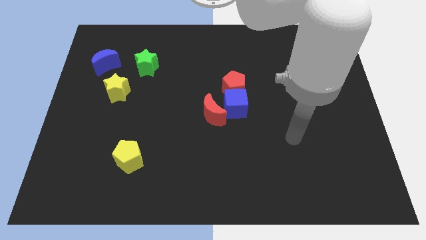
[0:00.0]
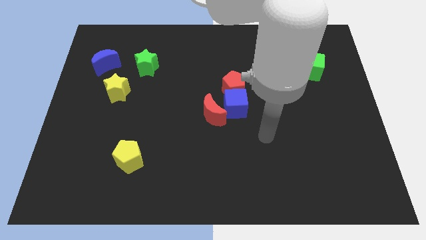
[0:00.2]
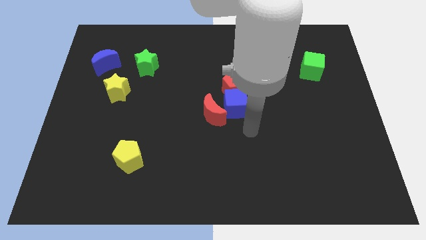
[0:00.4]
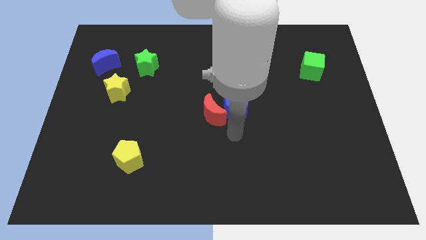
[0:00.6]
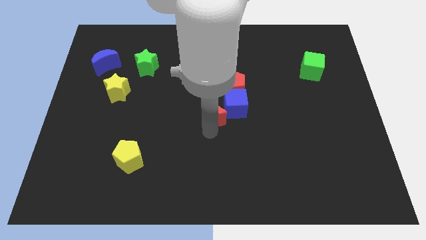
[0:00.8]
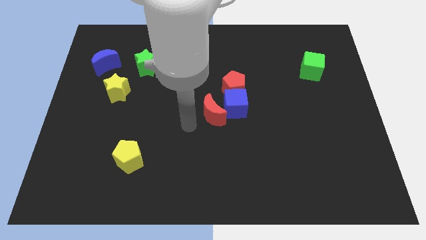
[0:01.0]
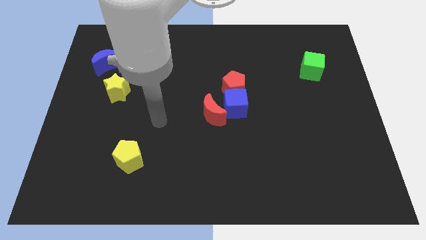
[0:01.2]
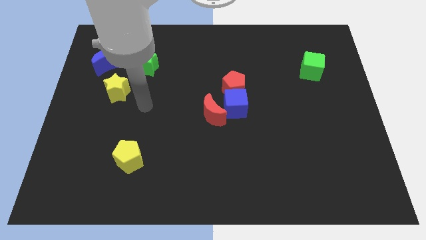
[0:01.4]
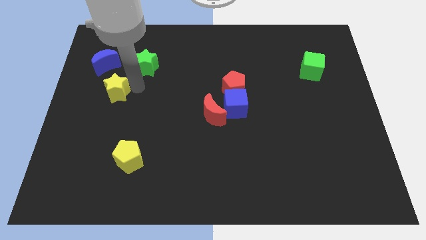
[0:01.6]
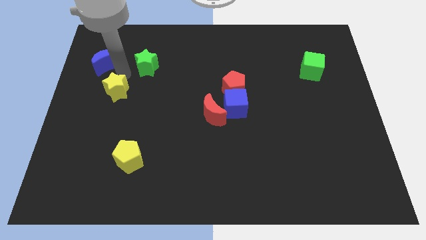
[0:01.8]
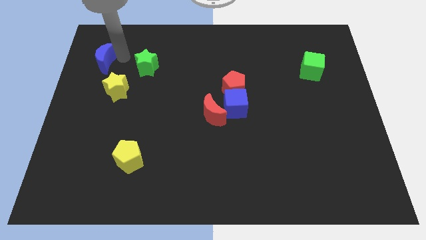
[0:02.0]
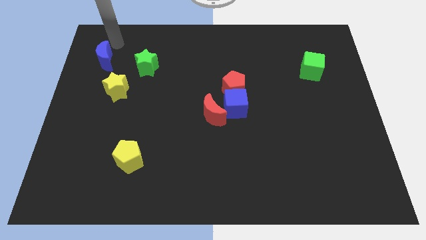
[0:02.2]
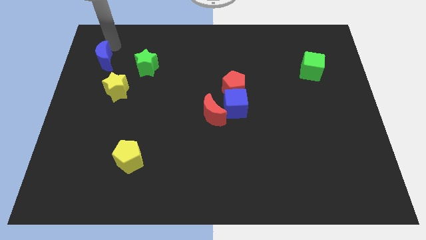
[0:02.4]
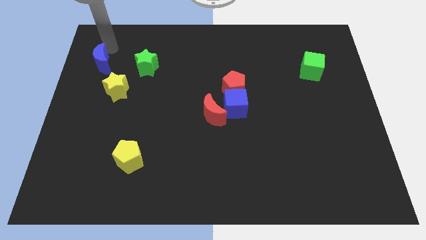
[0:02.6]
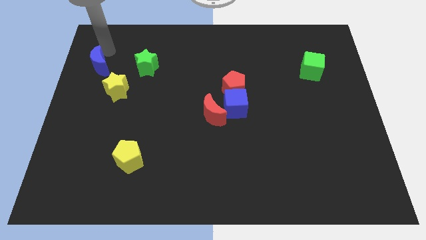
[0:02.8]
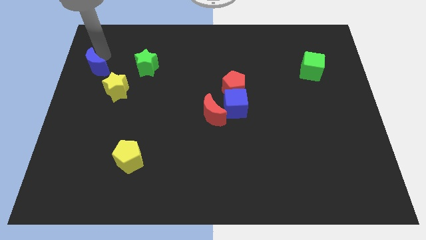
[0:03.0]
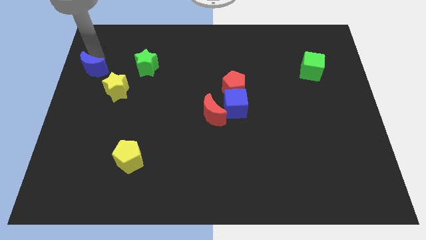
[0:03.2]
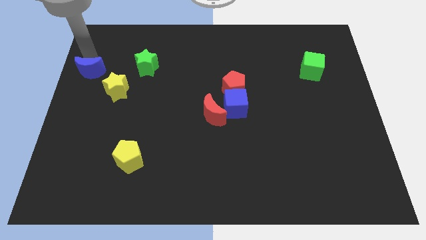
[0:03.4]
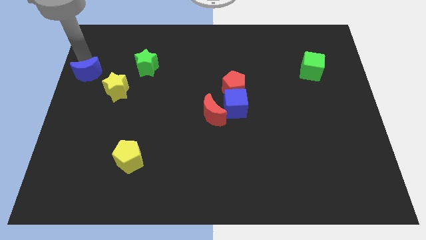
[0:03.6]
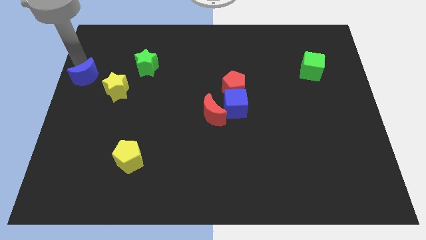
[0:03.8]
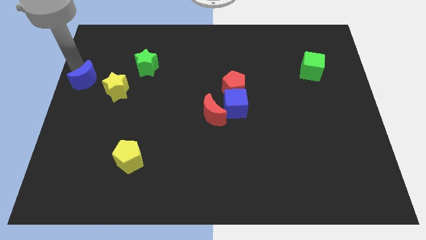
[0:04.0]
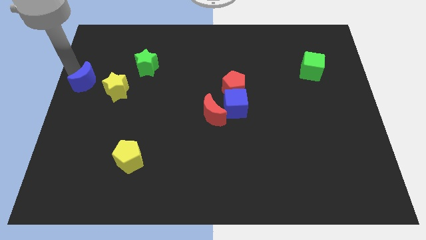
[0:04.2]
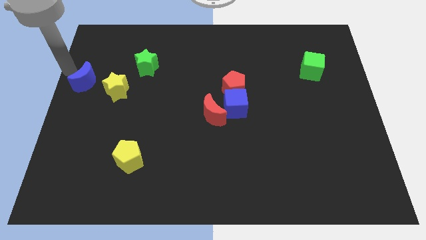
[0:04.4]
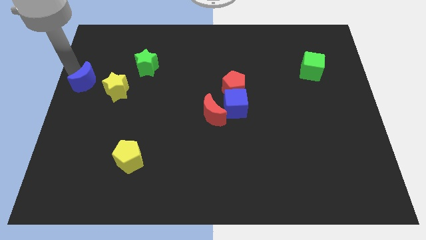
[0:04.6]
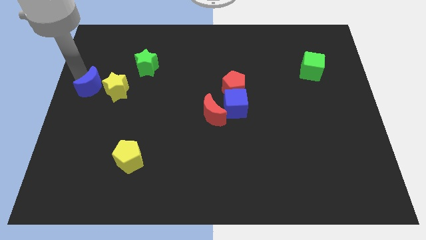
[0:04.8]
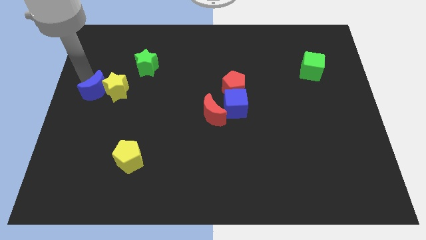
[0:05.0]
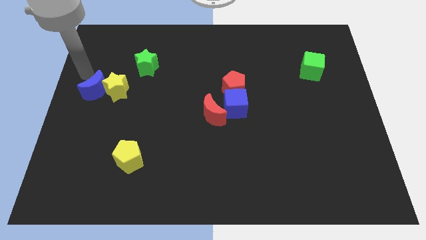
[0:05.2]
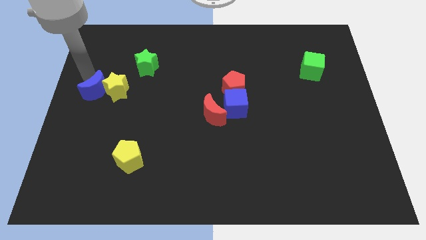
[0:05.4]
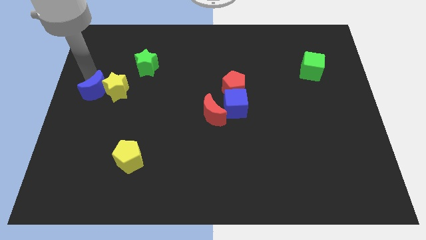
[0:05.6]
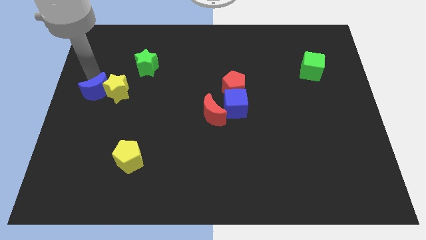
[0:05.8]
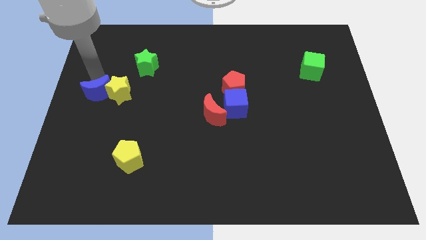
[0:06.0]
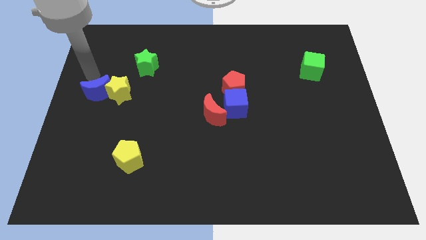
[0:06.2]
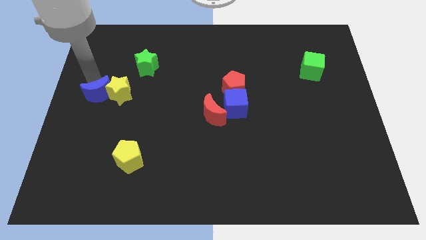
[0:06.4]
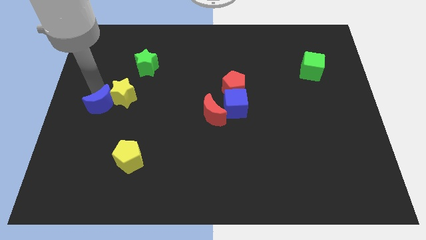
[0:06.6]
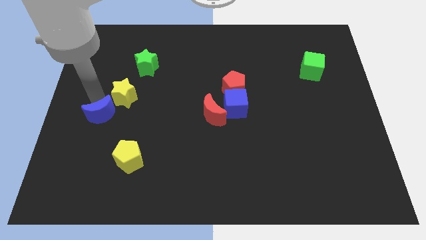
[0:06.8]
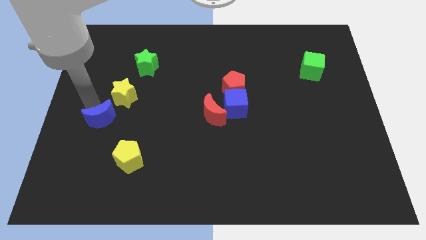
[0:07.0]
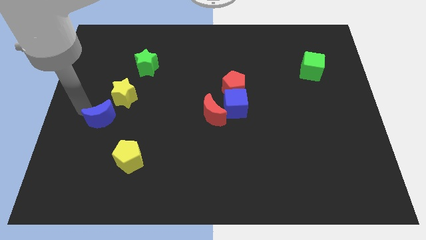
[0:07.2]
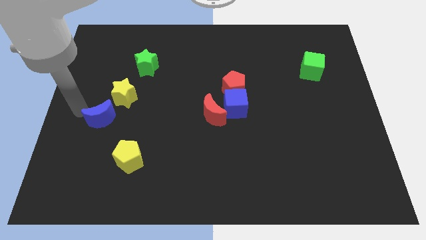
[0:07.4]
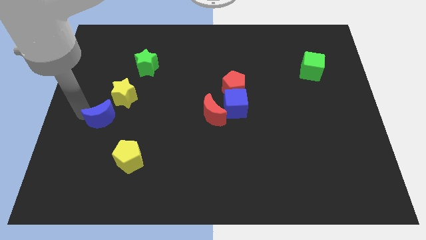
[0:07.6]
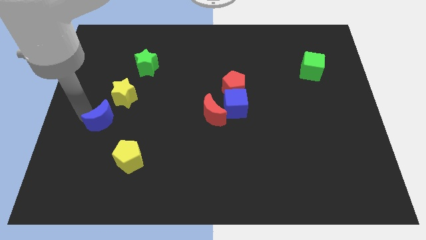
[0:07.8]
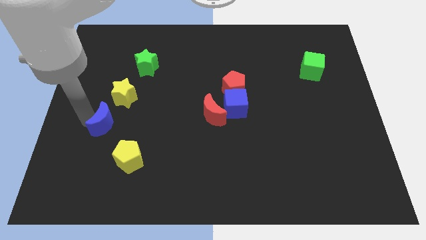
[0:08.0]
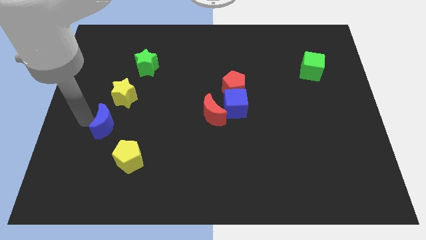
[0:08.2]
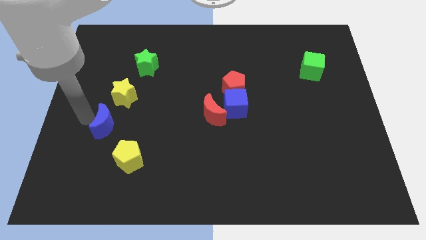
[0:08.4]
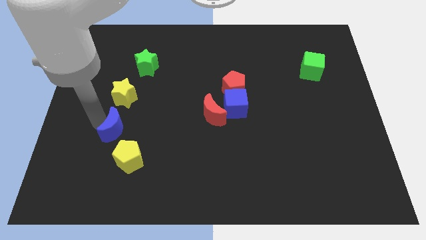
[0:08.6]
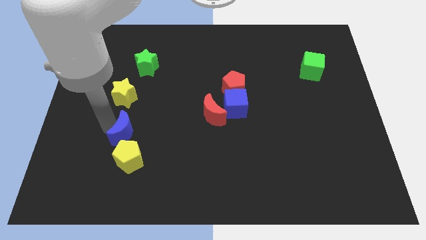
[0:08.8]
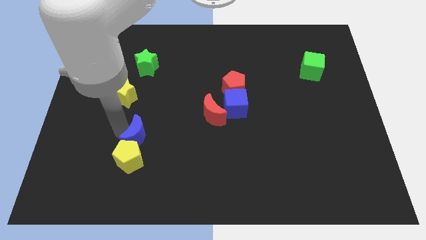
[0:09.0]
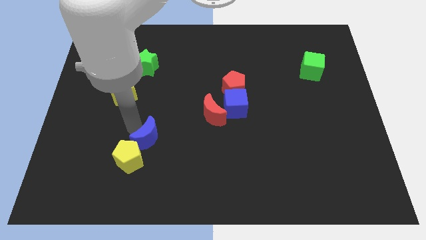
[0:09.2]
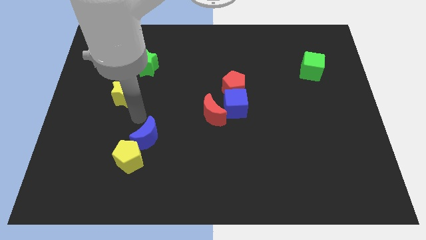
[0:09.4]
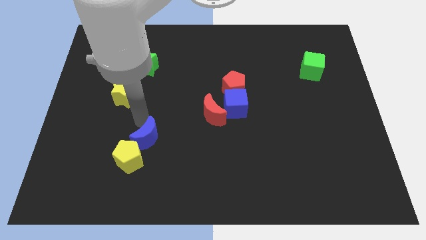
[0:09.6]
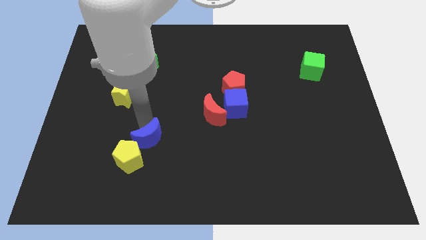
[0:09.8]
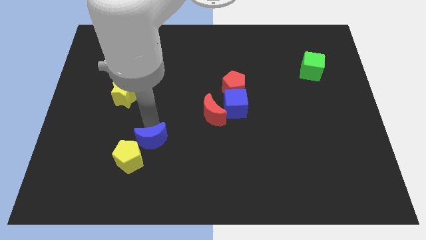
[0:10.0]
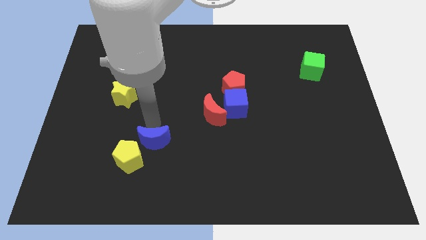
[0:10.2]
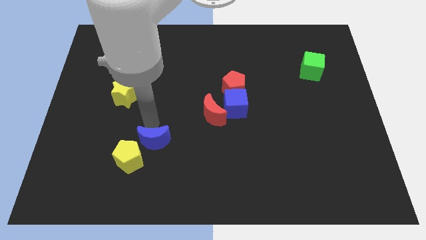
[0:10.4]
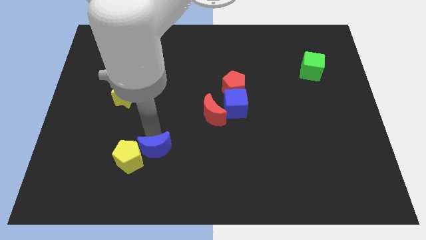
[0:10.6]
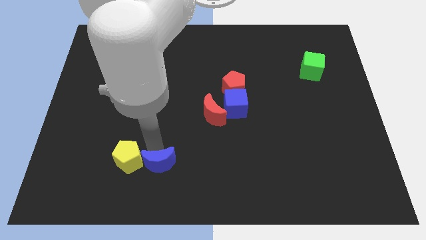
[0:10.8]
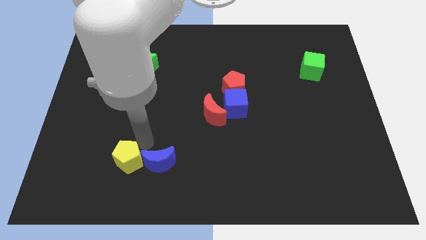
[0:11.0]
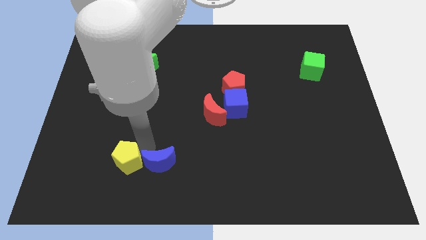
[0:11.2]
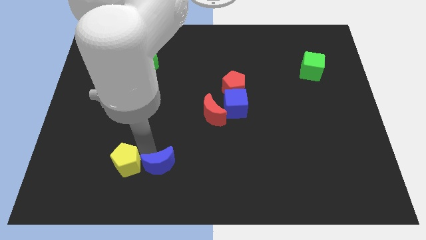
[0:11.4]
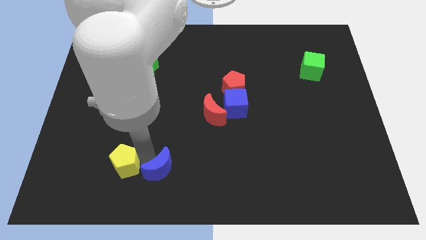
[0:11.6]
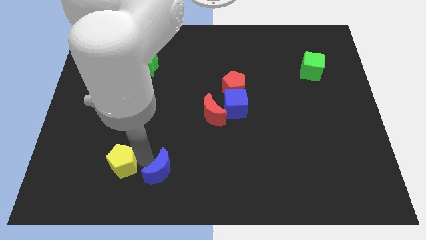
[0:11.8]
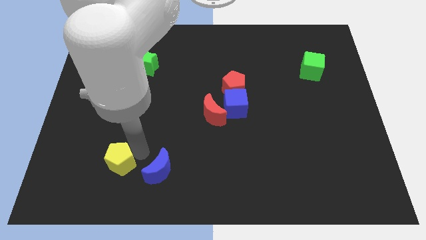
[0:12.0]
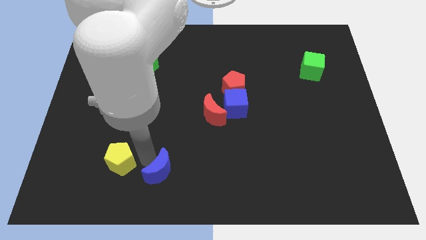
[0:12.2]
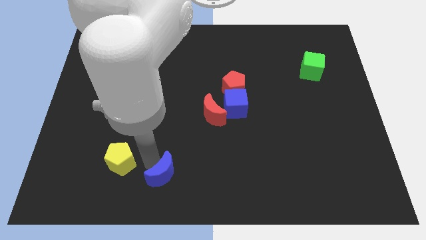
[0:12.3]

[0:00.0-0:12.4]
push the blue moon to the bottom

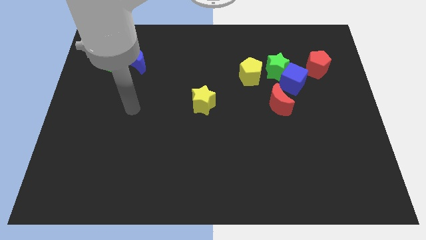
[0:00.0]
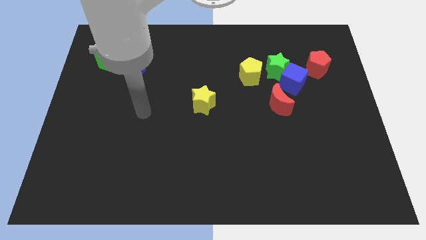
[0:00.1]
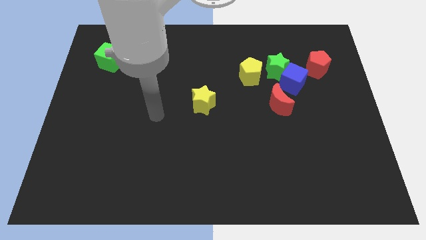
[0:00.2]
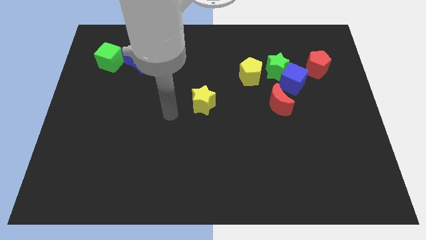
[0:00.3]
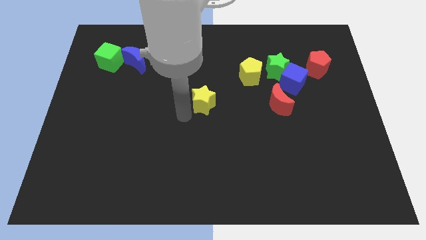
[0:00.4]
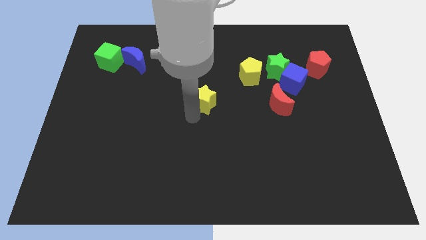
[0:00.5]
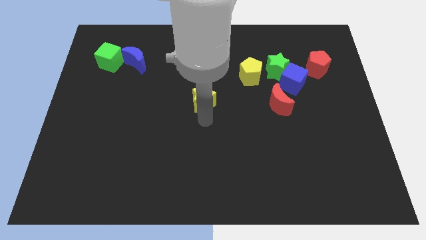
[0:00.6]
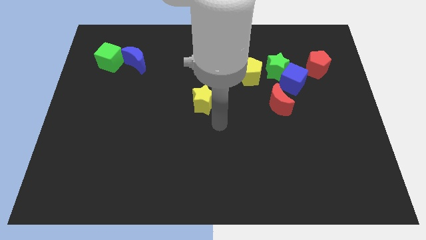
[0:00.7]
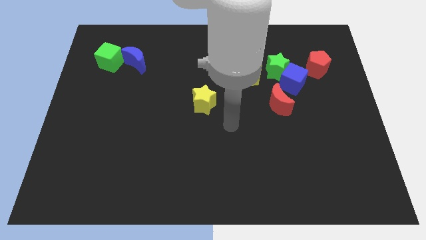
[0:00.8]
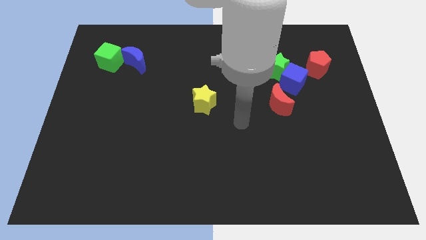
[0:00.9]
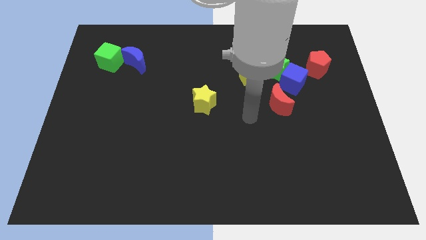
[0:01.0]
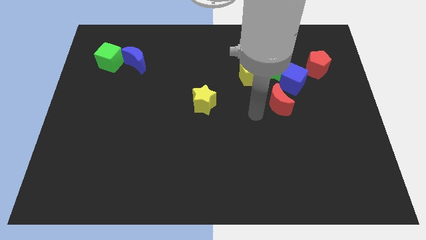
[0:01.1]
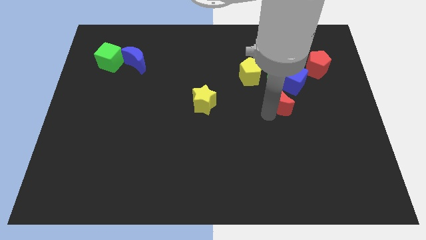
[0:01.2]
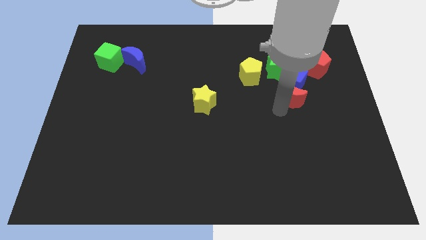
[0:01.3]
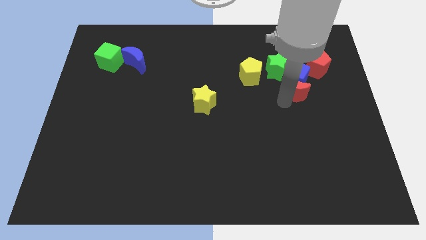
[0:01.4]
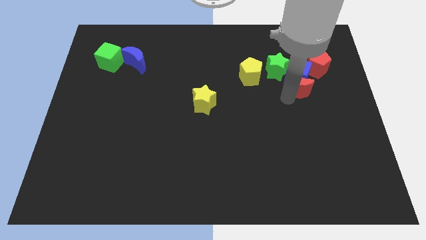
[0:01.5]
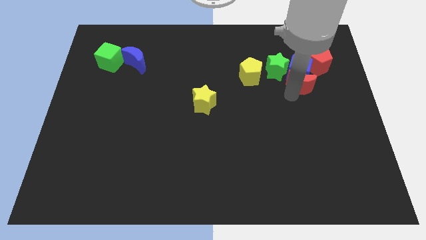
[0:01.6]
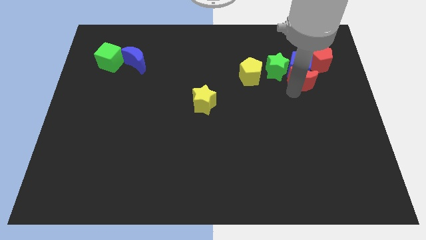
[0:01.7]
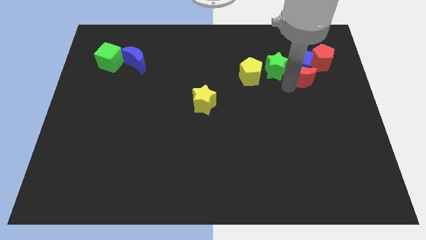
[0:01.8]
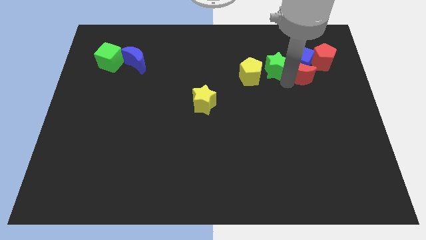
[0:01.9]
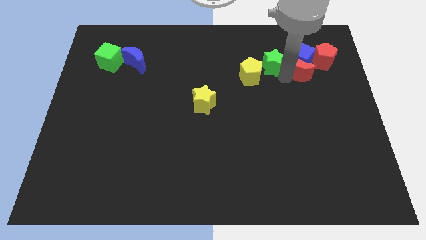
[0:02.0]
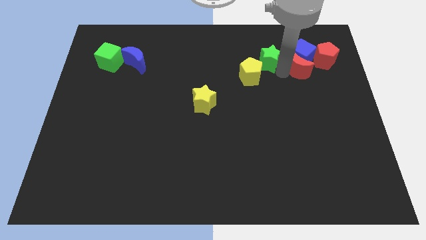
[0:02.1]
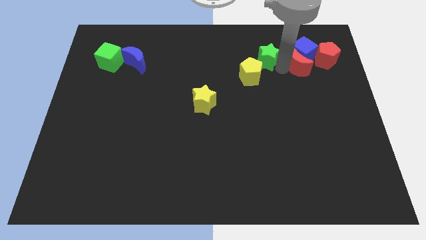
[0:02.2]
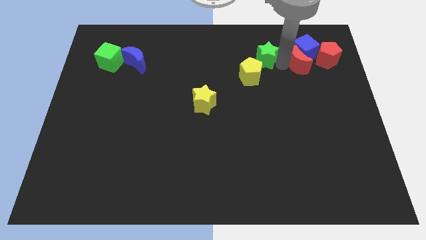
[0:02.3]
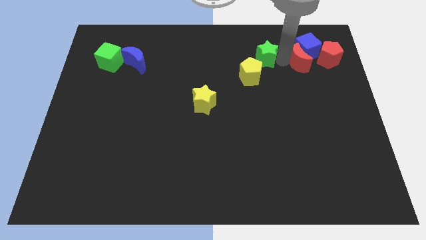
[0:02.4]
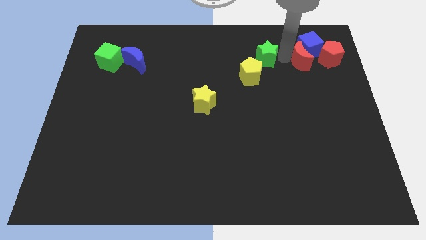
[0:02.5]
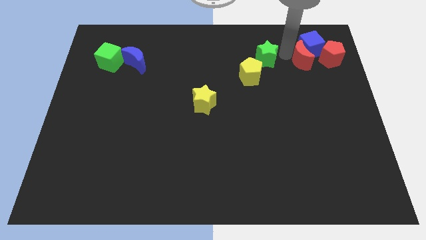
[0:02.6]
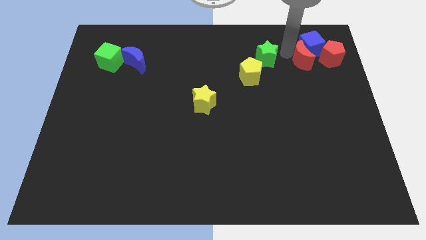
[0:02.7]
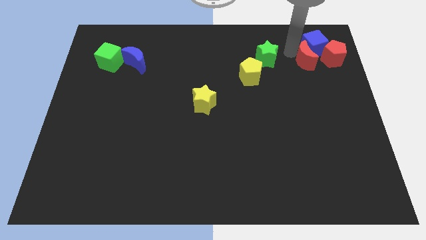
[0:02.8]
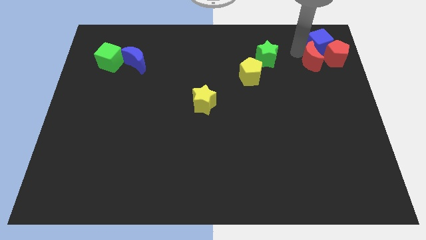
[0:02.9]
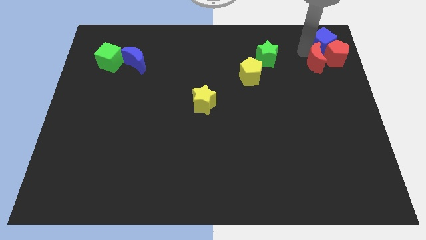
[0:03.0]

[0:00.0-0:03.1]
slide the blue cube to the upper right corner
